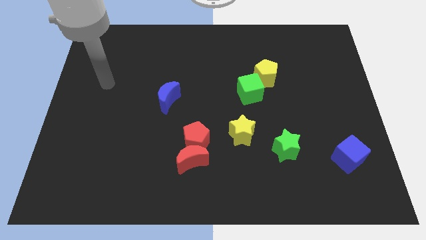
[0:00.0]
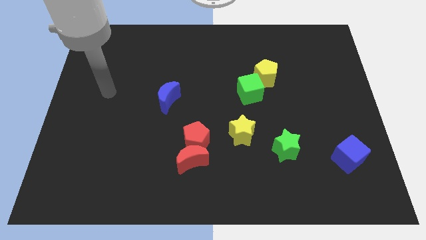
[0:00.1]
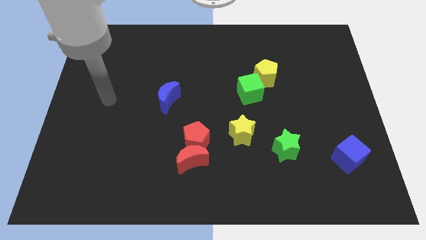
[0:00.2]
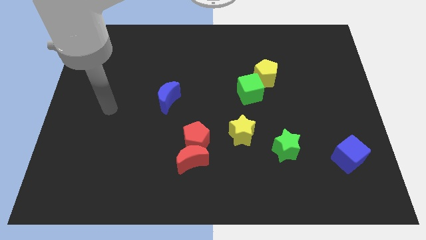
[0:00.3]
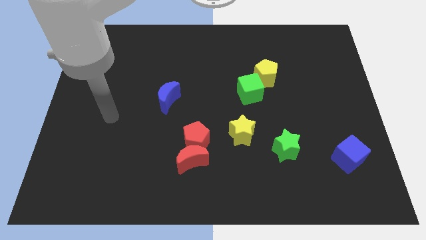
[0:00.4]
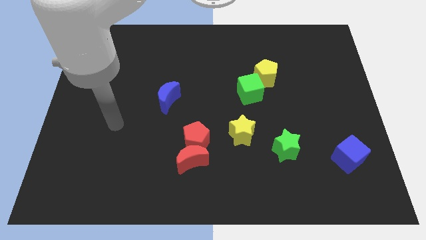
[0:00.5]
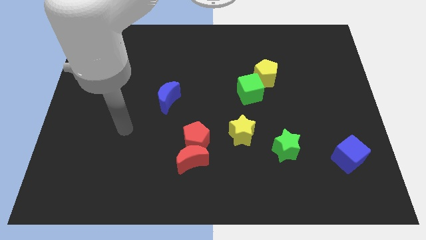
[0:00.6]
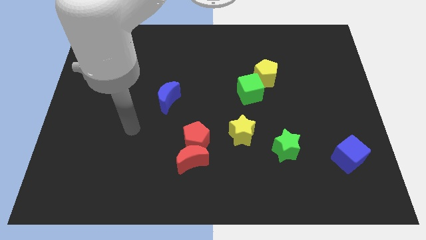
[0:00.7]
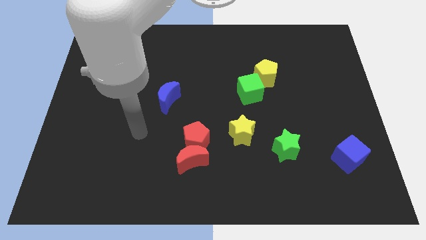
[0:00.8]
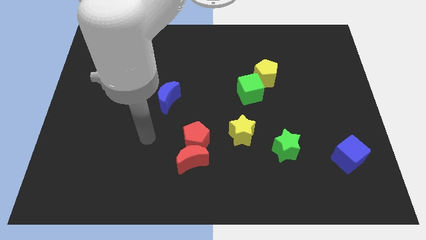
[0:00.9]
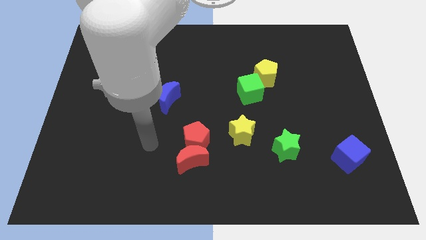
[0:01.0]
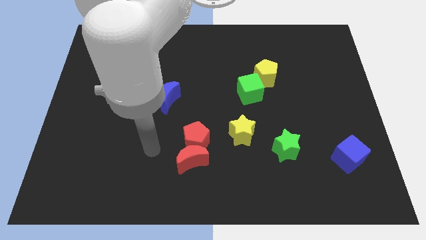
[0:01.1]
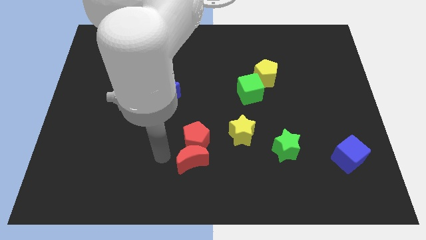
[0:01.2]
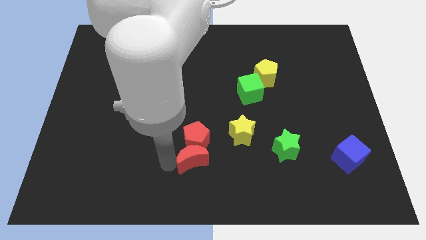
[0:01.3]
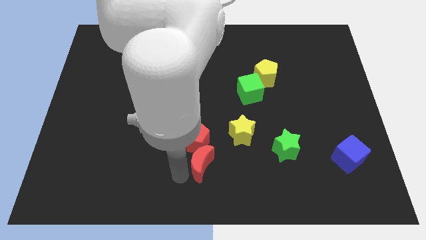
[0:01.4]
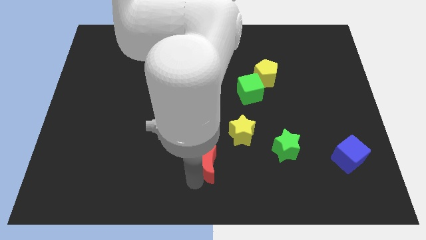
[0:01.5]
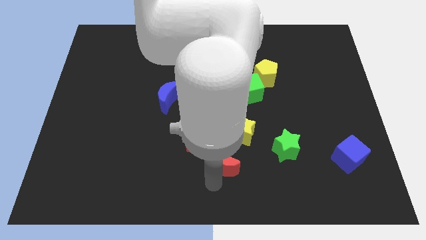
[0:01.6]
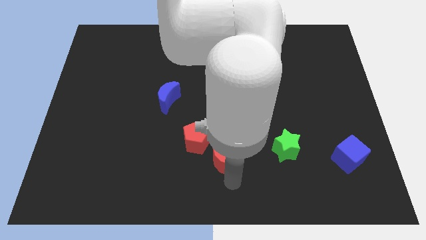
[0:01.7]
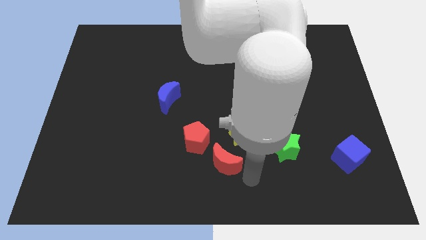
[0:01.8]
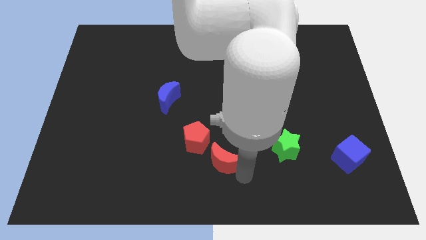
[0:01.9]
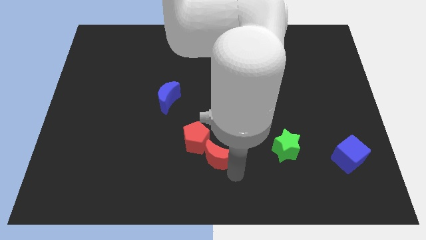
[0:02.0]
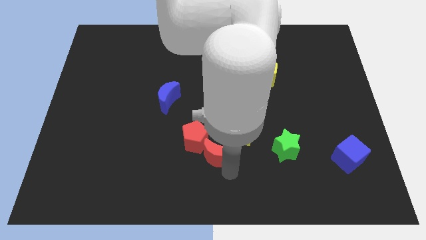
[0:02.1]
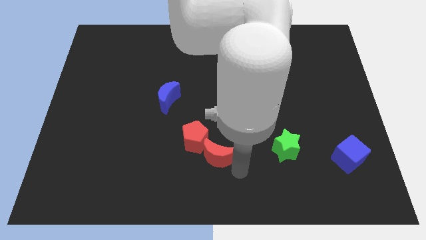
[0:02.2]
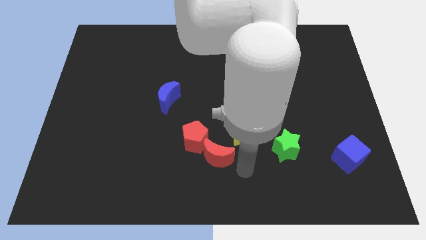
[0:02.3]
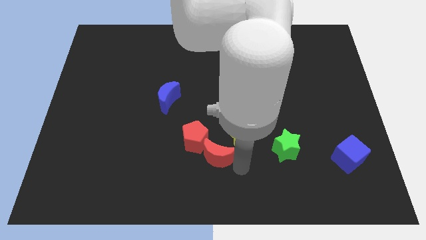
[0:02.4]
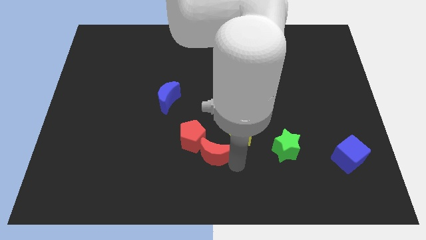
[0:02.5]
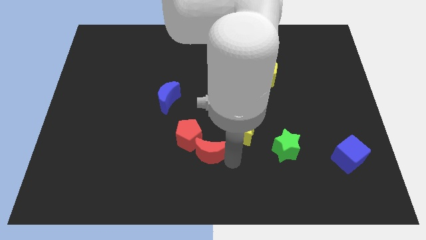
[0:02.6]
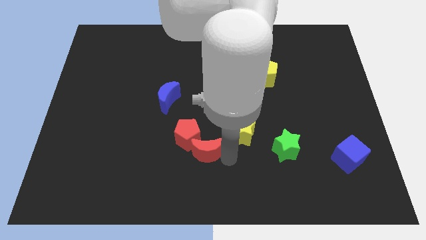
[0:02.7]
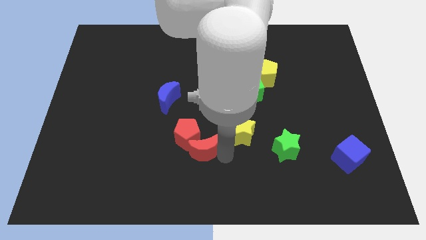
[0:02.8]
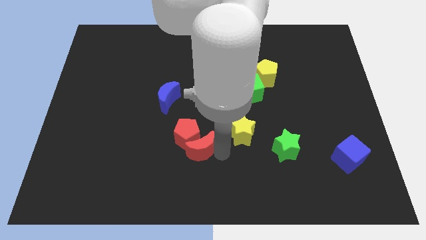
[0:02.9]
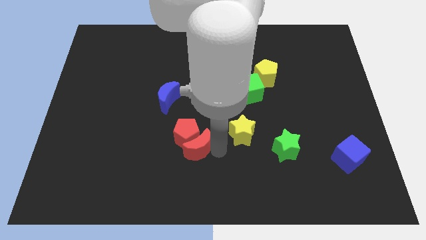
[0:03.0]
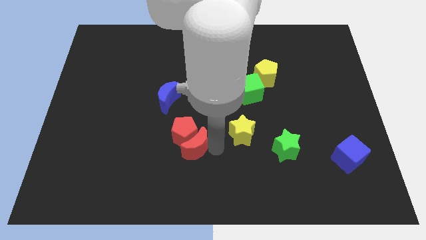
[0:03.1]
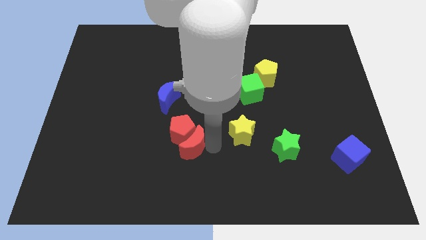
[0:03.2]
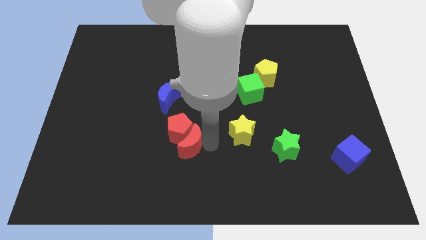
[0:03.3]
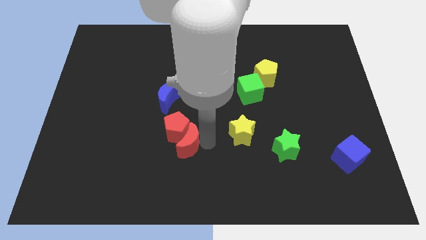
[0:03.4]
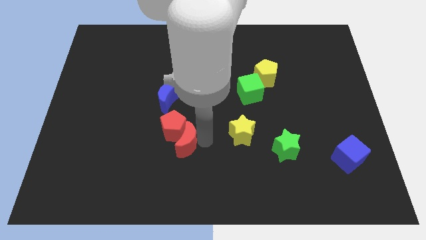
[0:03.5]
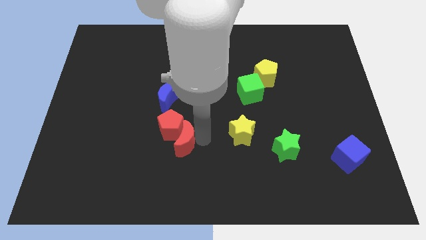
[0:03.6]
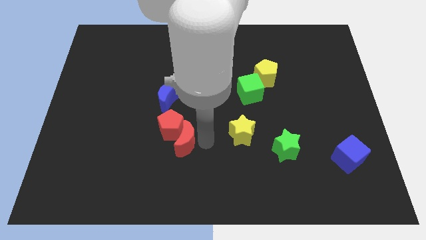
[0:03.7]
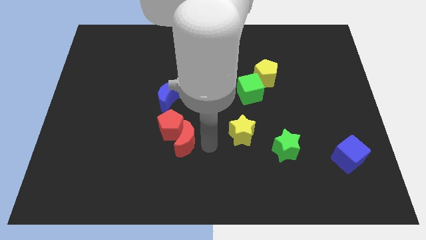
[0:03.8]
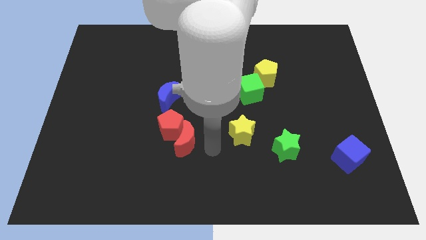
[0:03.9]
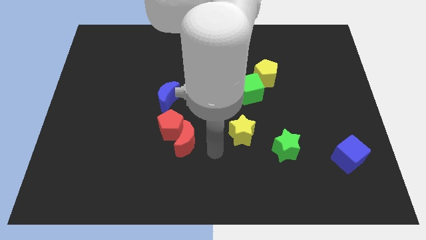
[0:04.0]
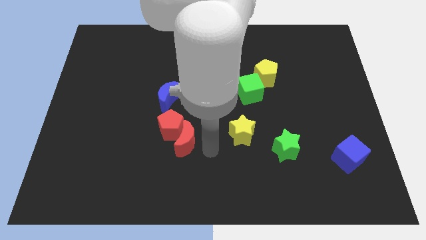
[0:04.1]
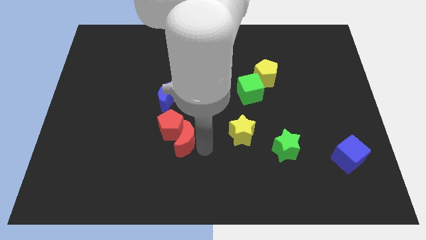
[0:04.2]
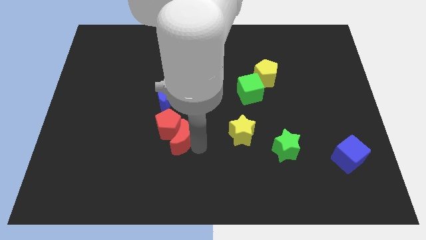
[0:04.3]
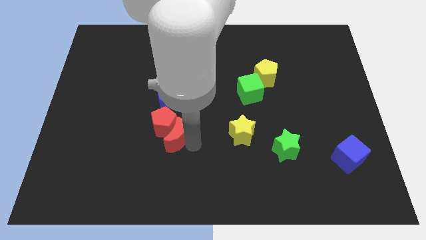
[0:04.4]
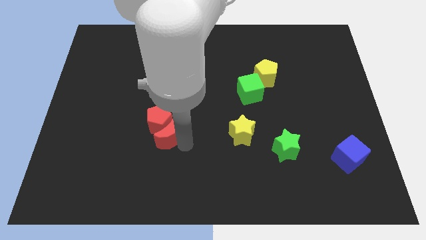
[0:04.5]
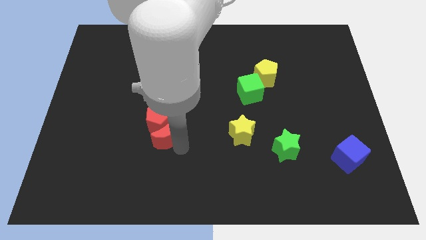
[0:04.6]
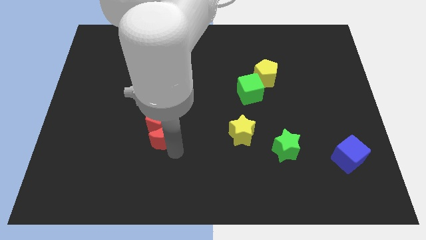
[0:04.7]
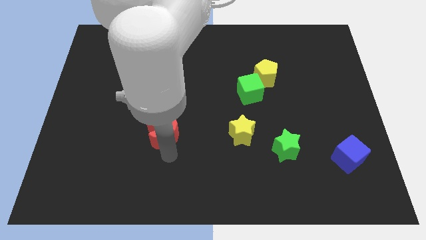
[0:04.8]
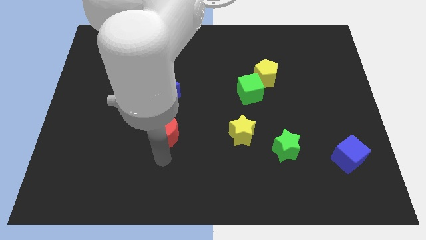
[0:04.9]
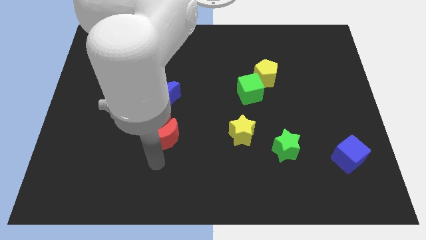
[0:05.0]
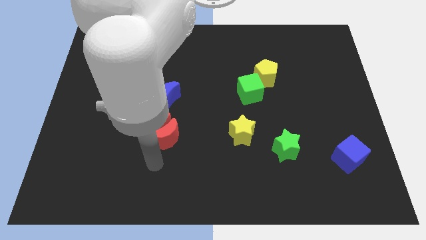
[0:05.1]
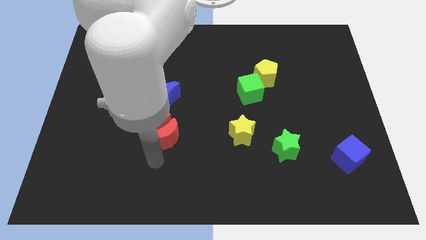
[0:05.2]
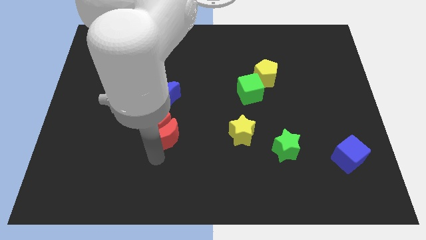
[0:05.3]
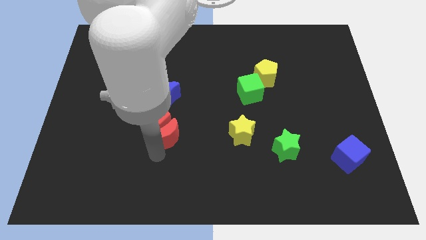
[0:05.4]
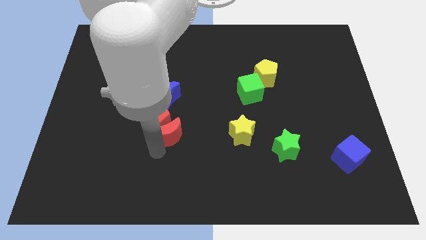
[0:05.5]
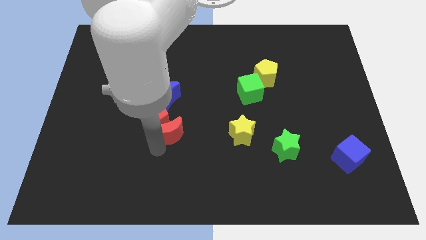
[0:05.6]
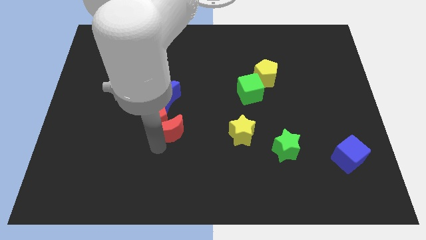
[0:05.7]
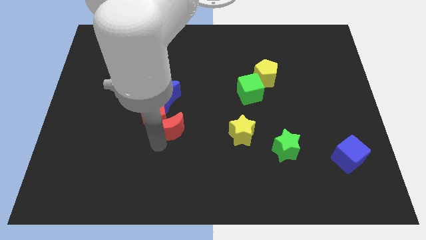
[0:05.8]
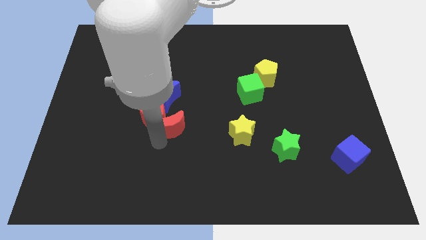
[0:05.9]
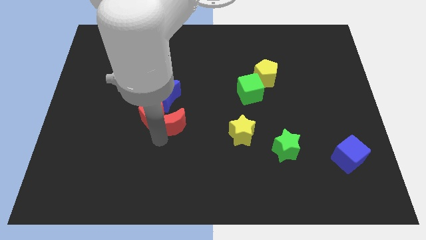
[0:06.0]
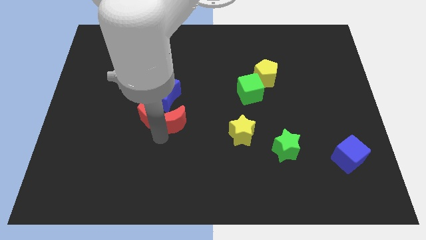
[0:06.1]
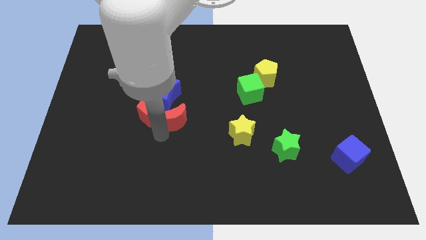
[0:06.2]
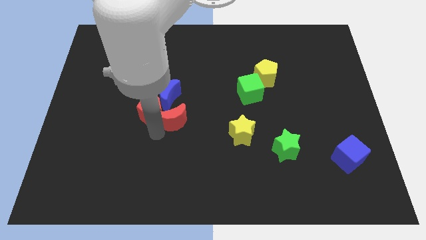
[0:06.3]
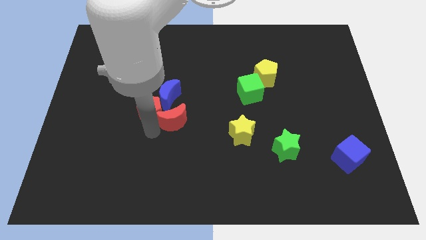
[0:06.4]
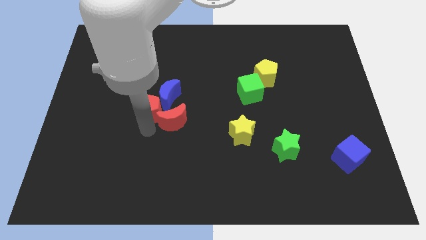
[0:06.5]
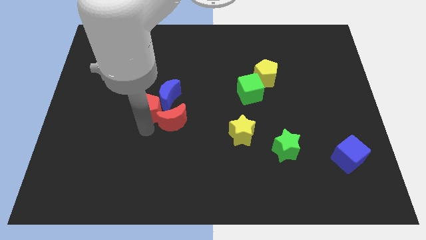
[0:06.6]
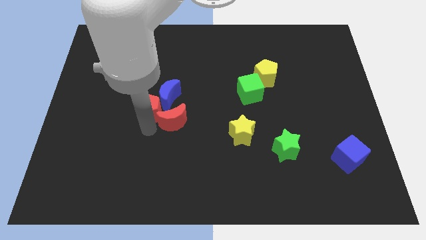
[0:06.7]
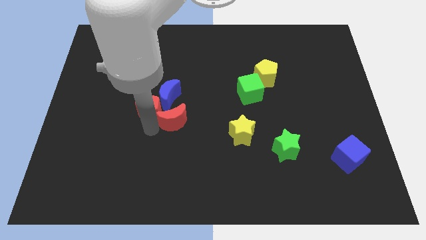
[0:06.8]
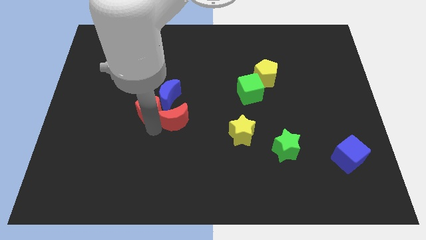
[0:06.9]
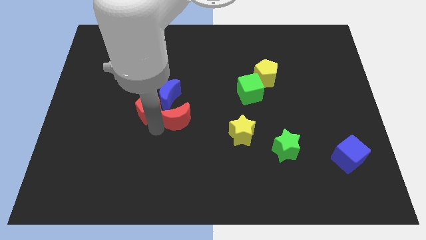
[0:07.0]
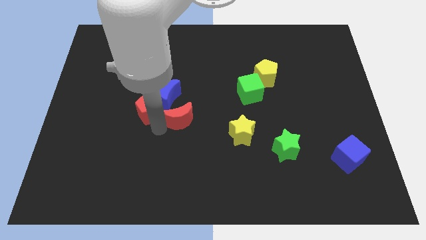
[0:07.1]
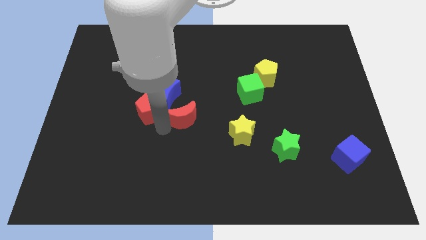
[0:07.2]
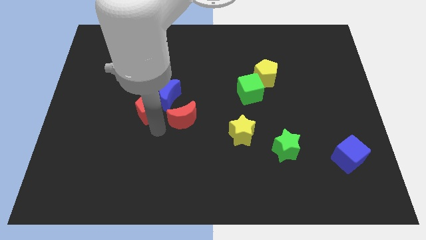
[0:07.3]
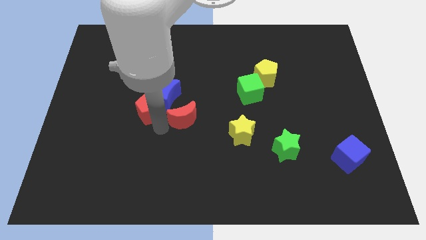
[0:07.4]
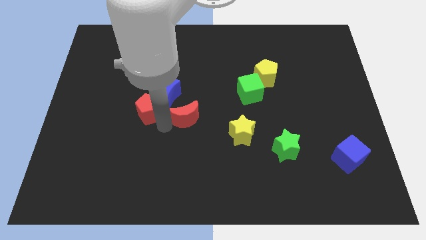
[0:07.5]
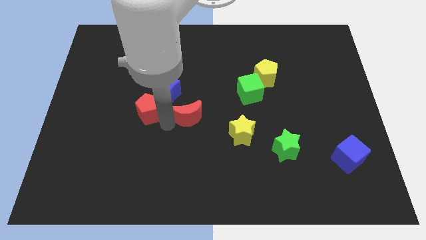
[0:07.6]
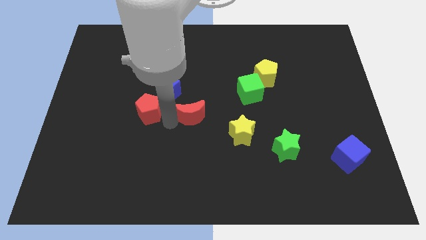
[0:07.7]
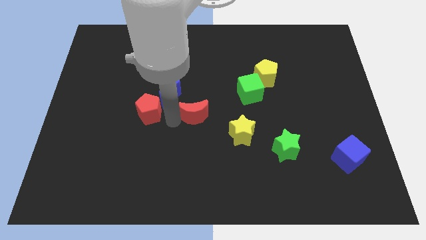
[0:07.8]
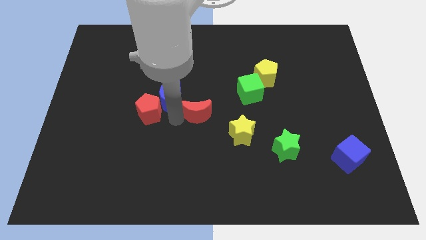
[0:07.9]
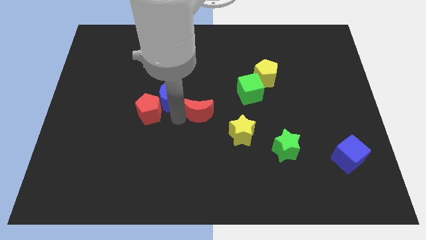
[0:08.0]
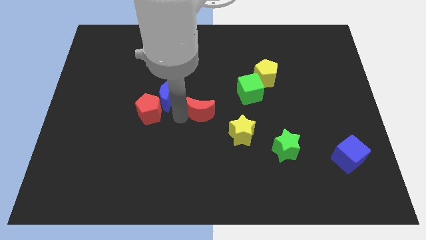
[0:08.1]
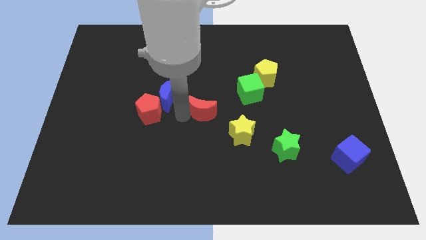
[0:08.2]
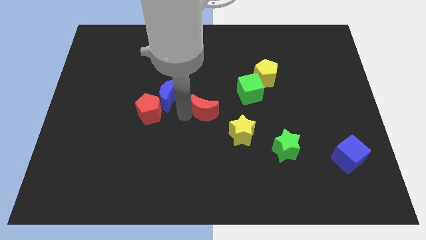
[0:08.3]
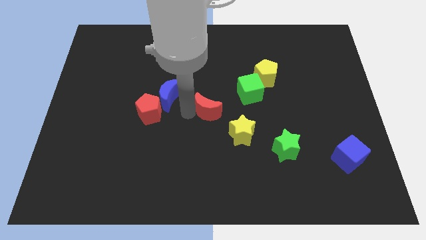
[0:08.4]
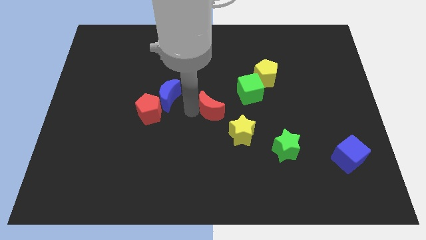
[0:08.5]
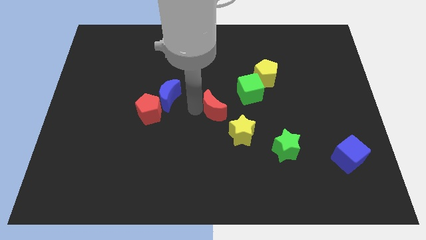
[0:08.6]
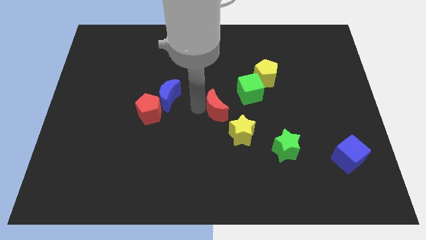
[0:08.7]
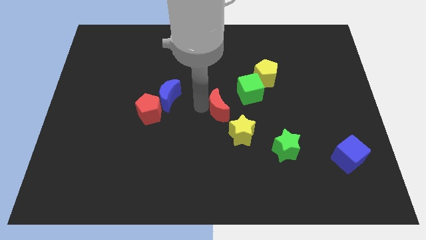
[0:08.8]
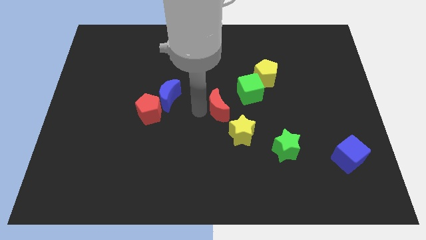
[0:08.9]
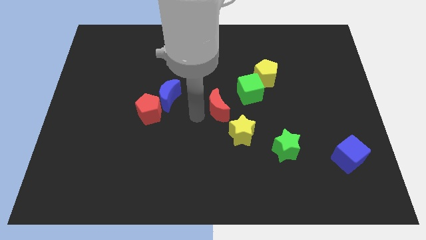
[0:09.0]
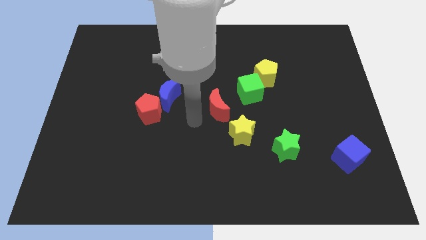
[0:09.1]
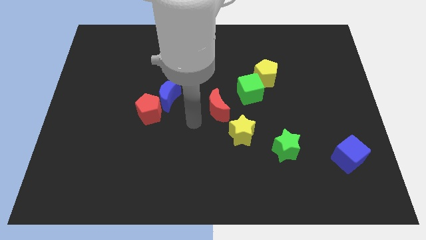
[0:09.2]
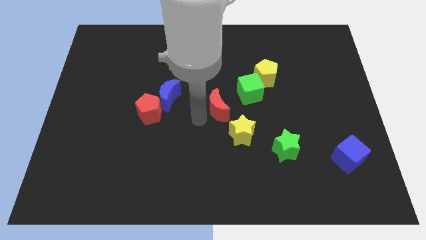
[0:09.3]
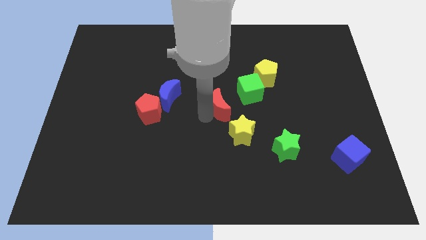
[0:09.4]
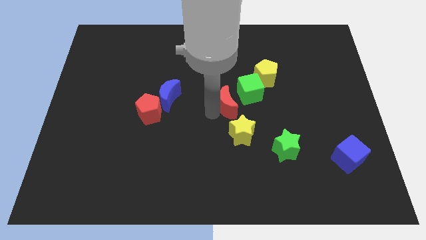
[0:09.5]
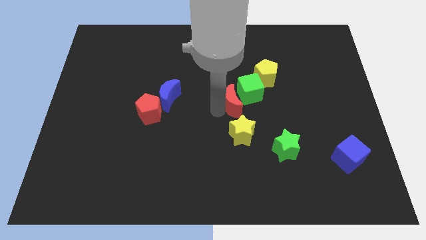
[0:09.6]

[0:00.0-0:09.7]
put the red moon next to the green cube
